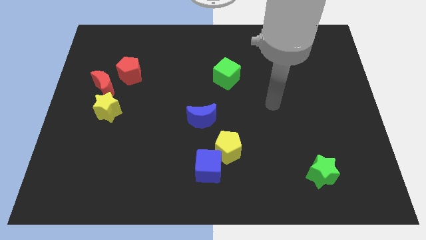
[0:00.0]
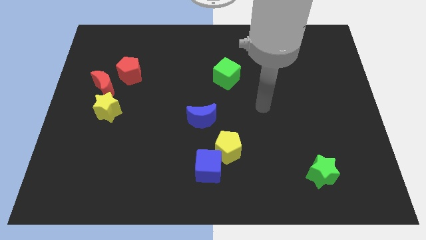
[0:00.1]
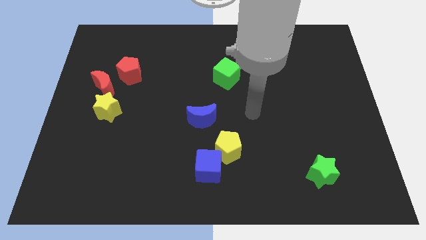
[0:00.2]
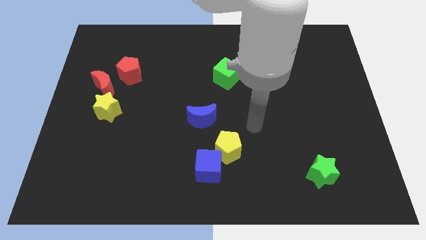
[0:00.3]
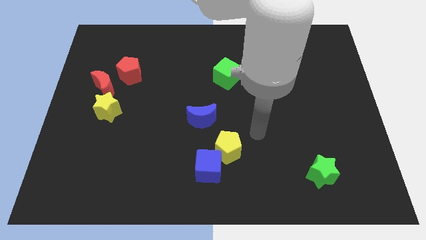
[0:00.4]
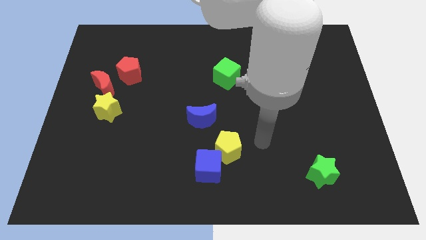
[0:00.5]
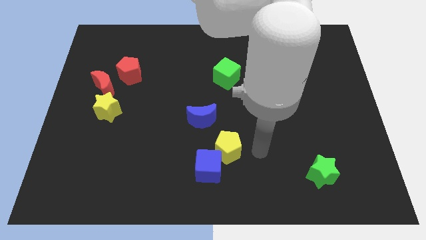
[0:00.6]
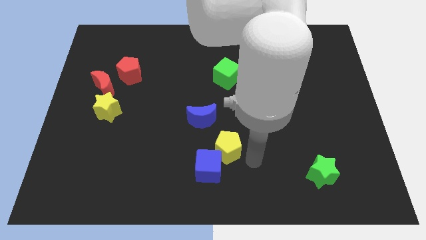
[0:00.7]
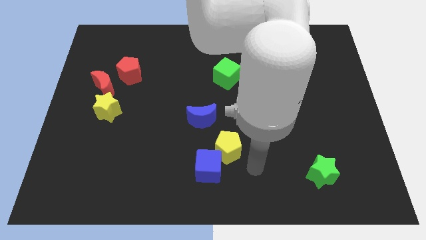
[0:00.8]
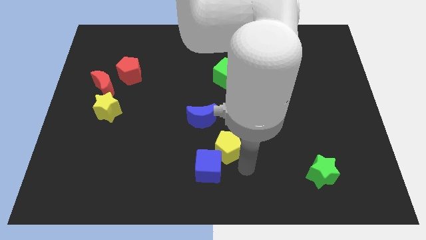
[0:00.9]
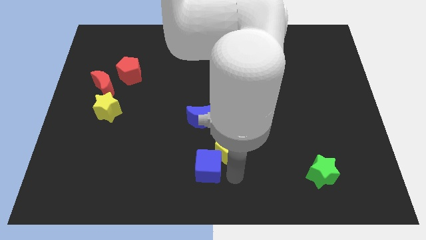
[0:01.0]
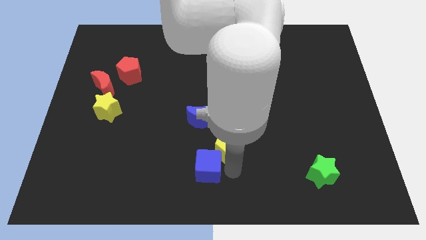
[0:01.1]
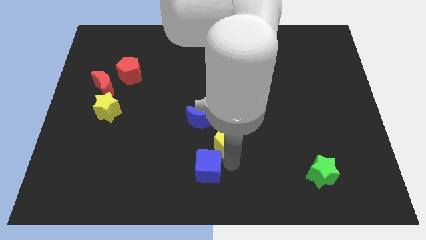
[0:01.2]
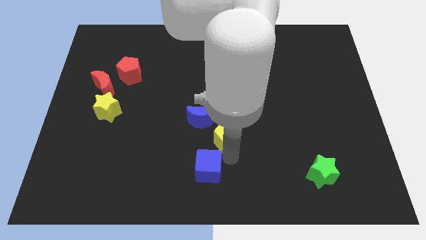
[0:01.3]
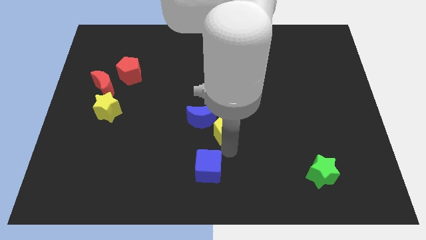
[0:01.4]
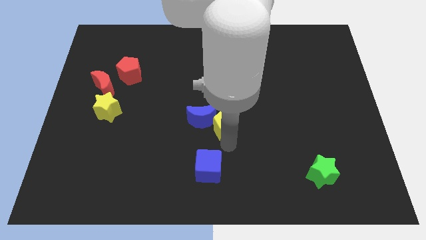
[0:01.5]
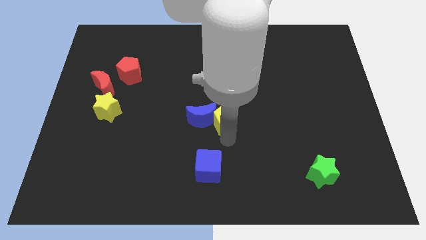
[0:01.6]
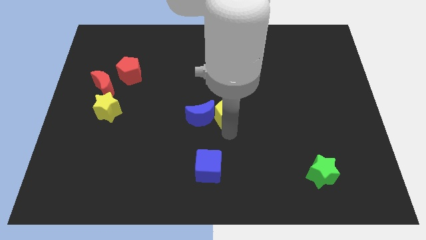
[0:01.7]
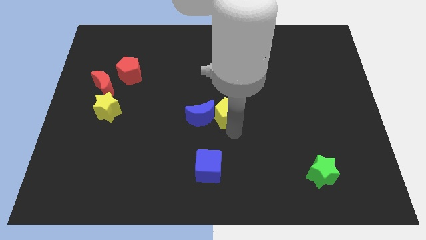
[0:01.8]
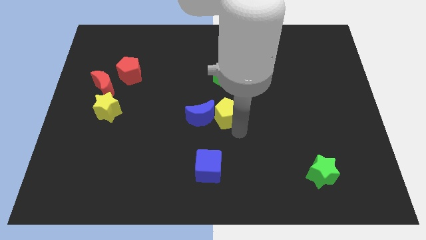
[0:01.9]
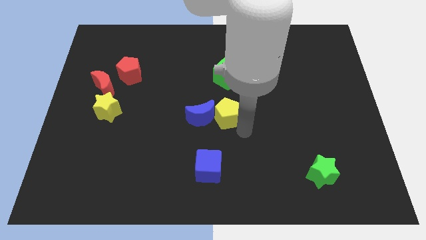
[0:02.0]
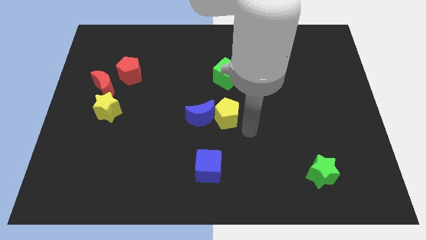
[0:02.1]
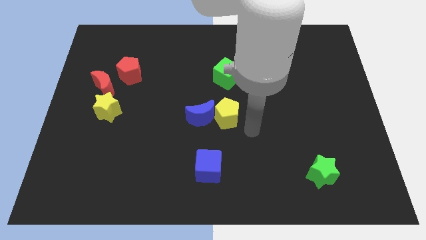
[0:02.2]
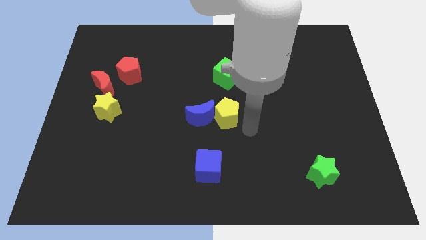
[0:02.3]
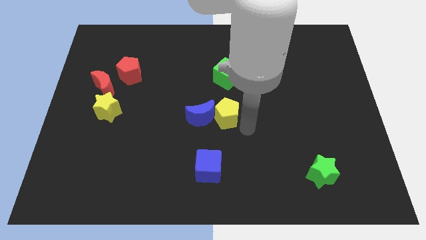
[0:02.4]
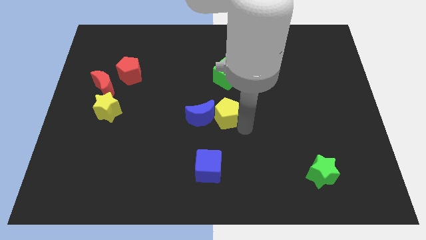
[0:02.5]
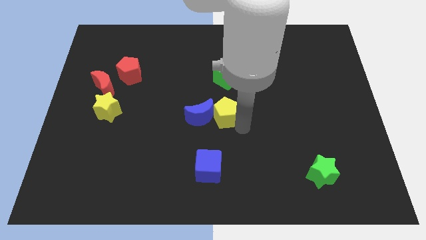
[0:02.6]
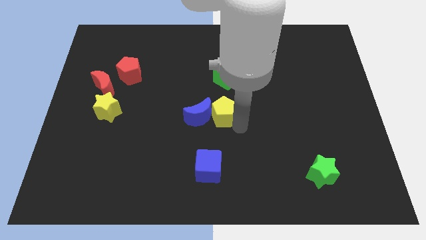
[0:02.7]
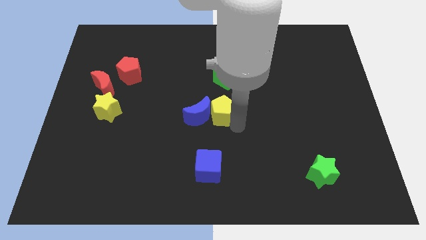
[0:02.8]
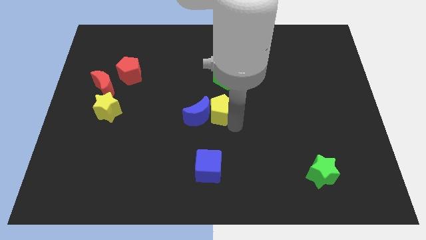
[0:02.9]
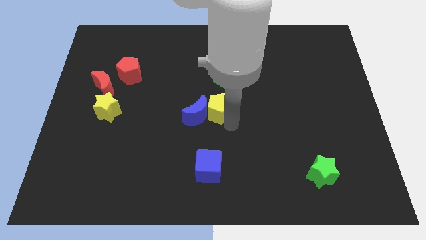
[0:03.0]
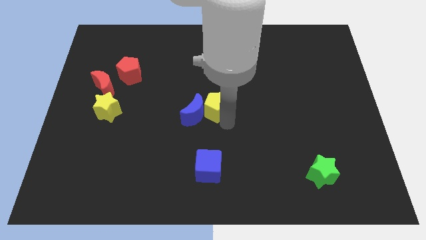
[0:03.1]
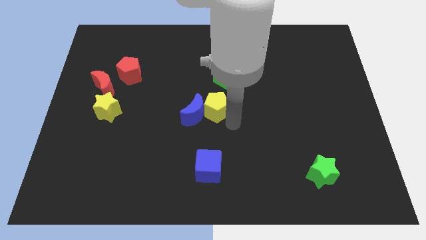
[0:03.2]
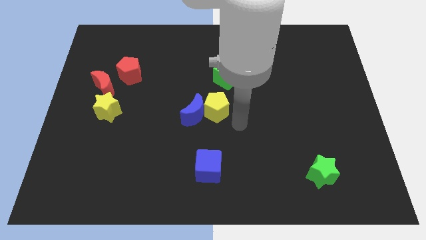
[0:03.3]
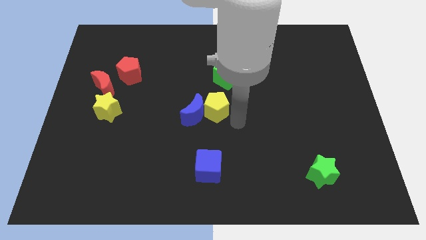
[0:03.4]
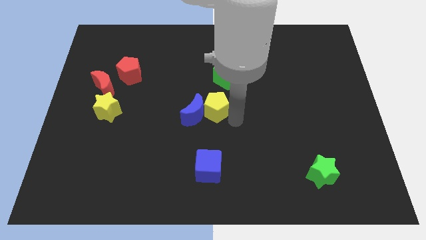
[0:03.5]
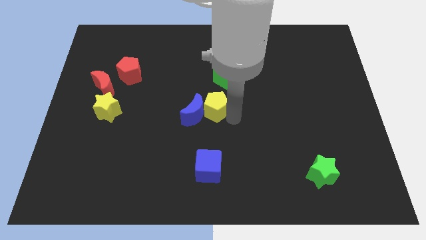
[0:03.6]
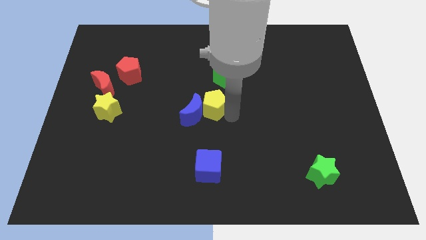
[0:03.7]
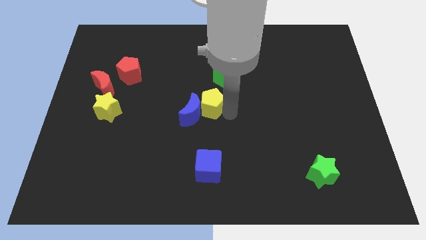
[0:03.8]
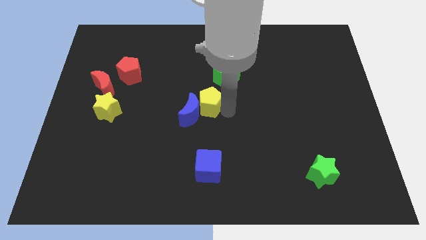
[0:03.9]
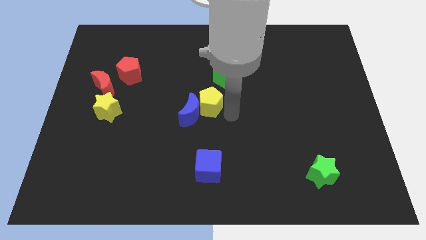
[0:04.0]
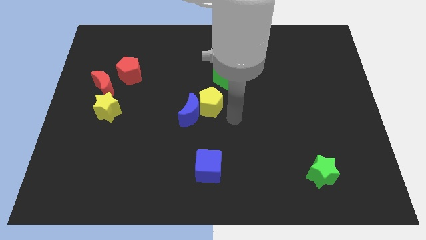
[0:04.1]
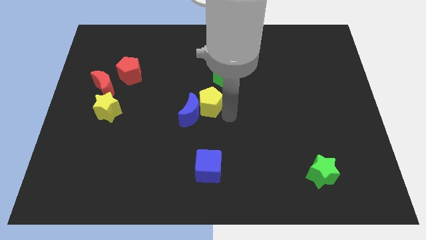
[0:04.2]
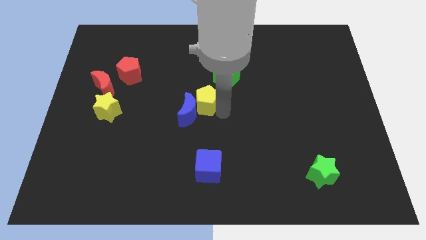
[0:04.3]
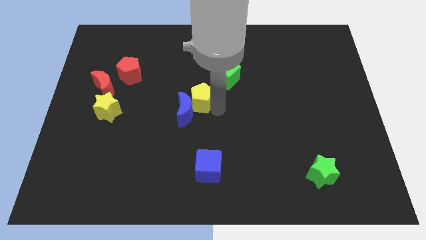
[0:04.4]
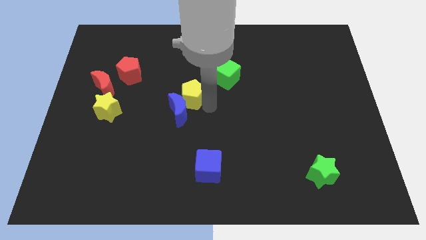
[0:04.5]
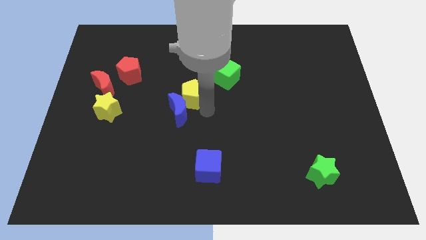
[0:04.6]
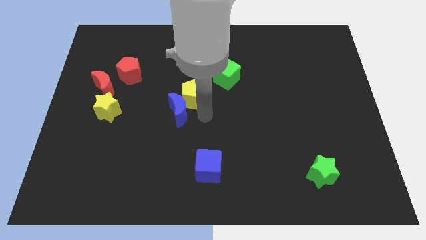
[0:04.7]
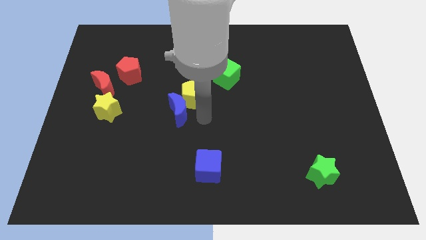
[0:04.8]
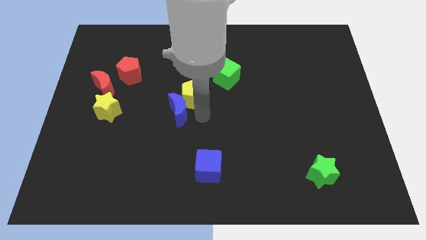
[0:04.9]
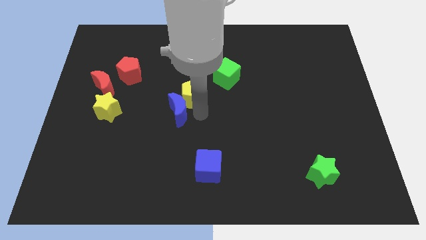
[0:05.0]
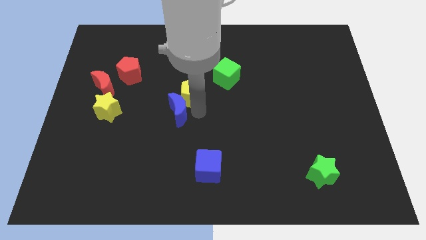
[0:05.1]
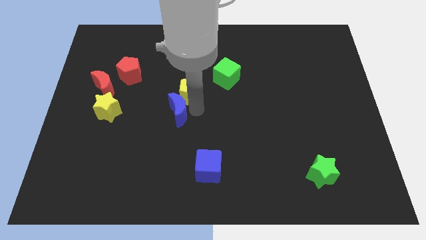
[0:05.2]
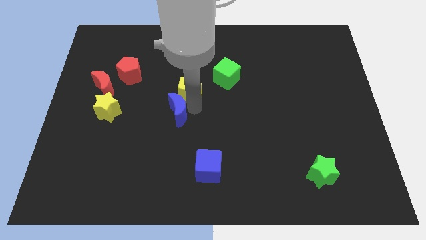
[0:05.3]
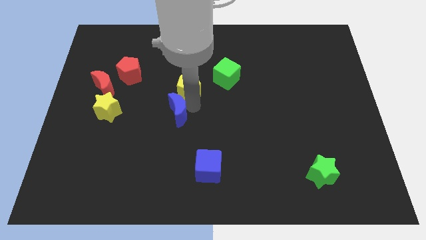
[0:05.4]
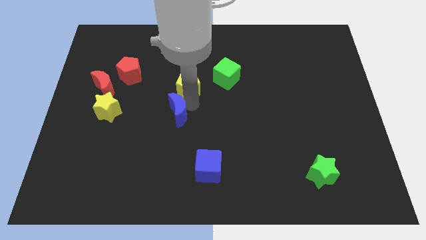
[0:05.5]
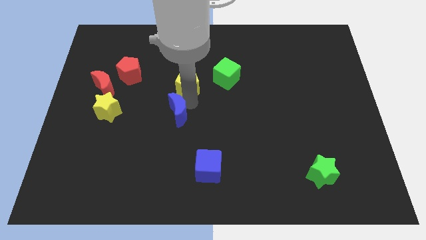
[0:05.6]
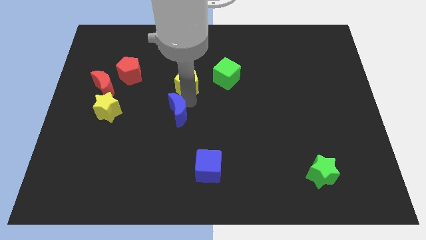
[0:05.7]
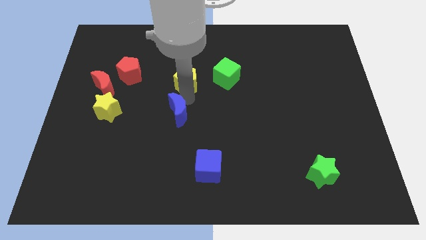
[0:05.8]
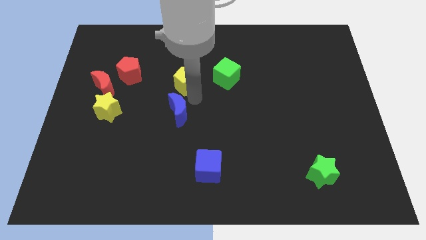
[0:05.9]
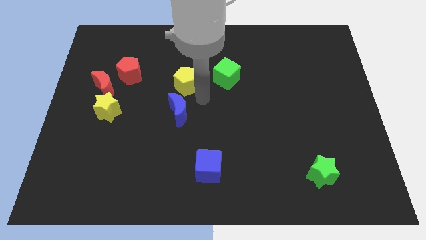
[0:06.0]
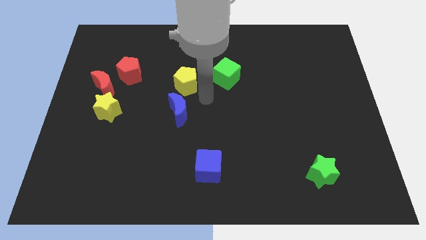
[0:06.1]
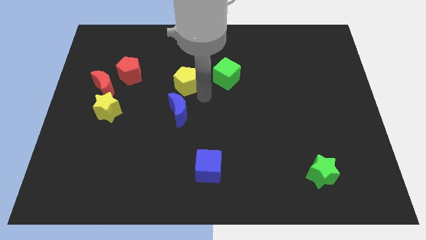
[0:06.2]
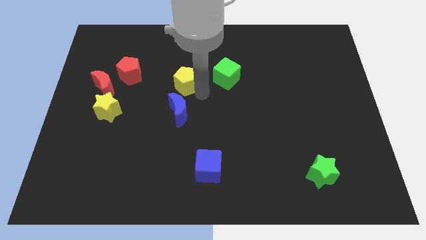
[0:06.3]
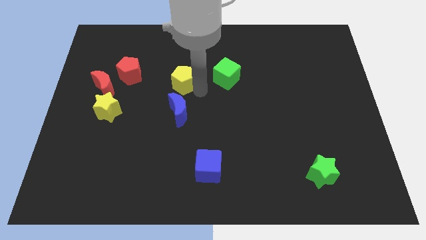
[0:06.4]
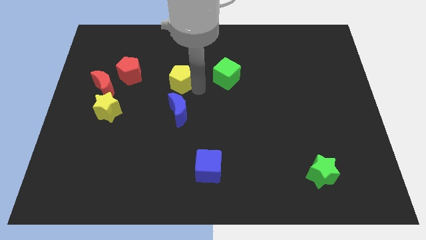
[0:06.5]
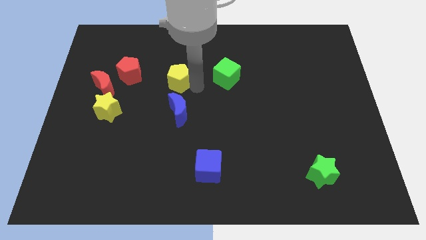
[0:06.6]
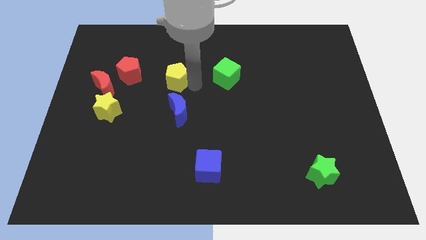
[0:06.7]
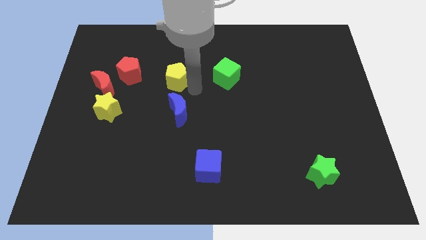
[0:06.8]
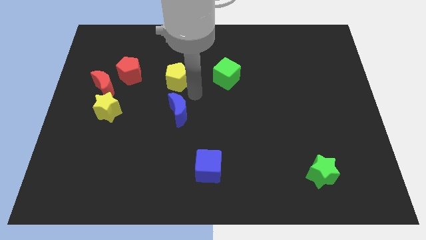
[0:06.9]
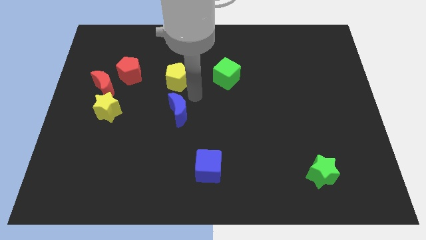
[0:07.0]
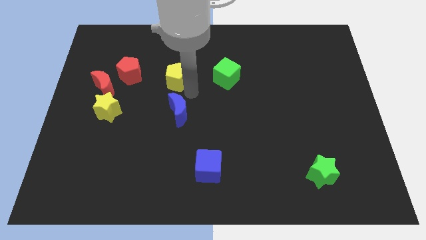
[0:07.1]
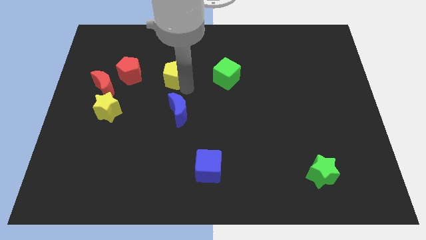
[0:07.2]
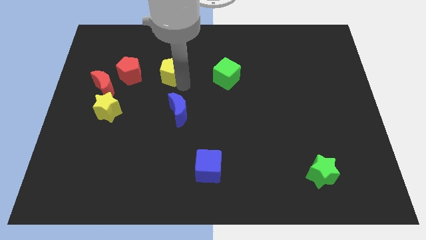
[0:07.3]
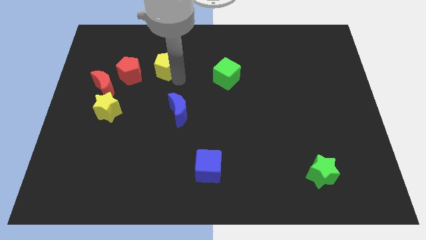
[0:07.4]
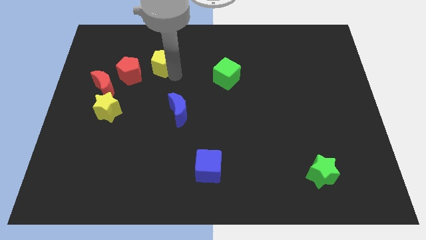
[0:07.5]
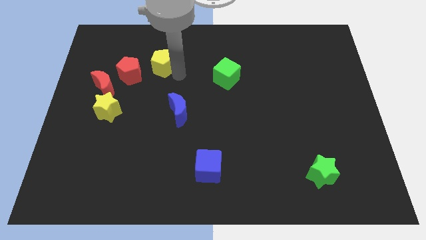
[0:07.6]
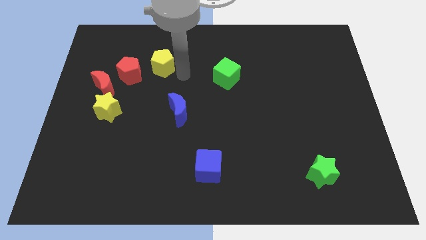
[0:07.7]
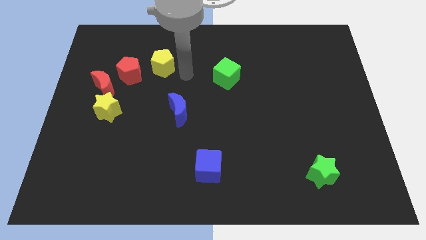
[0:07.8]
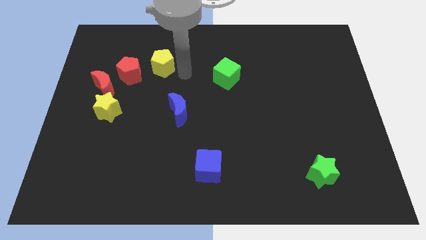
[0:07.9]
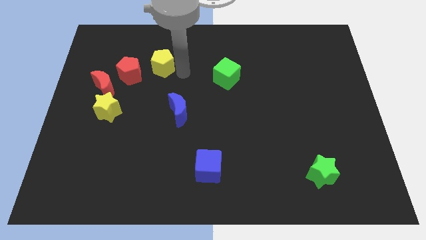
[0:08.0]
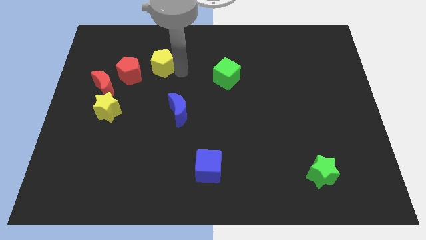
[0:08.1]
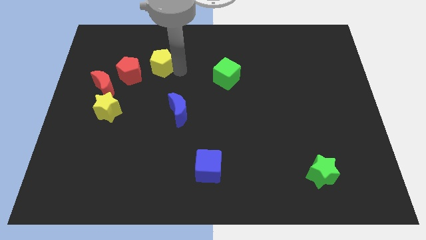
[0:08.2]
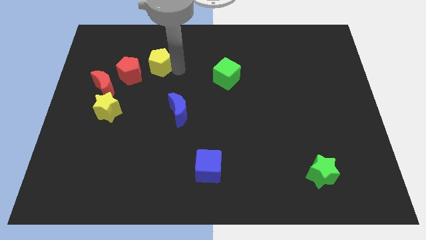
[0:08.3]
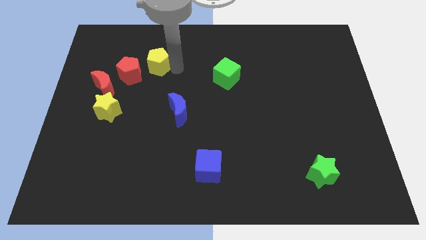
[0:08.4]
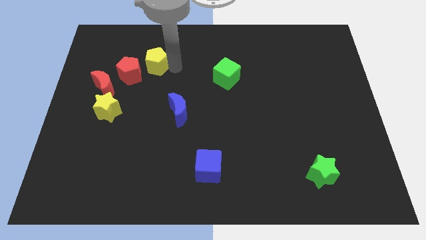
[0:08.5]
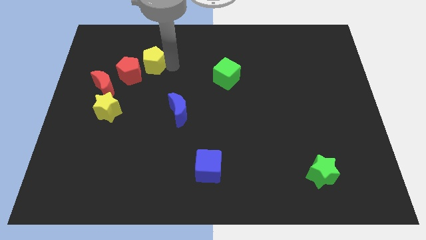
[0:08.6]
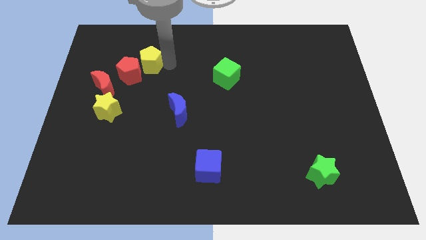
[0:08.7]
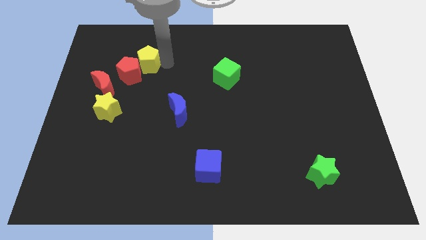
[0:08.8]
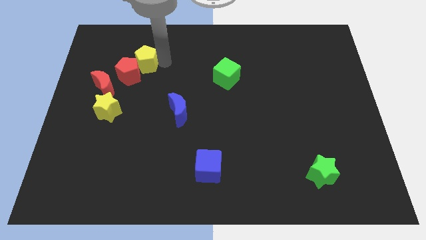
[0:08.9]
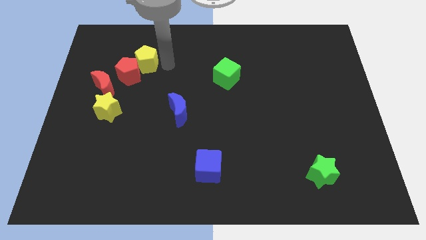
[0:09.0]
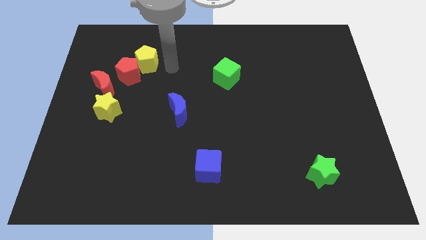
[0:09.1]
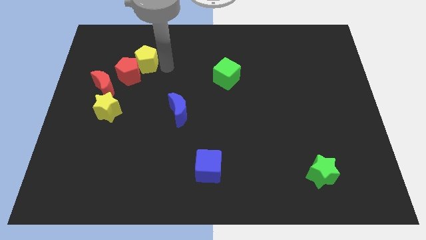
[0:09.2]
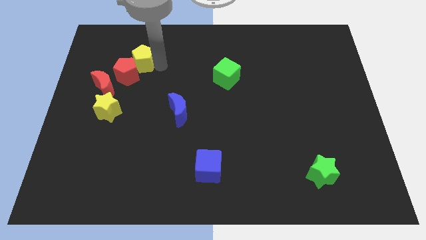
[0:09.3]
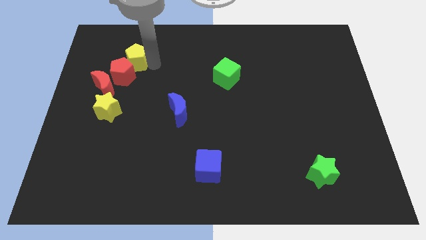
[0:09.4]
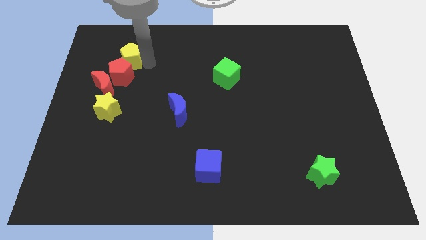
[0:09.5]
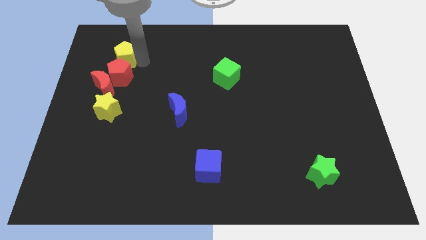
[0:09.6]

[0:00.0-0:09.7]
slide the yellow pentagon above the red moon
